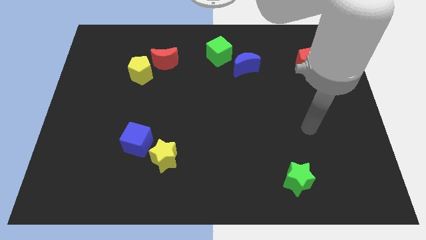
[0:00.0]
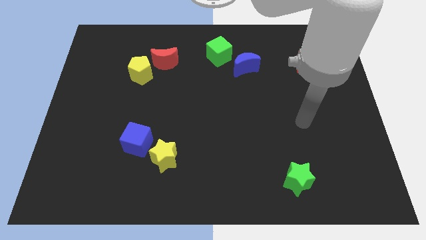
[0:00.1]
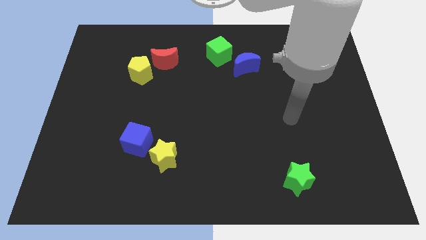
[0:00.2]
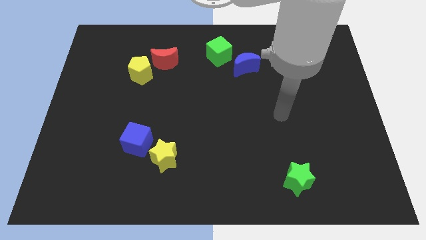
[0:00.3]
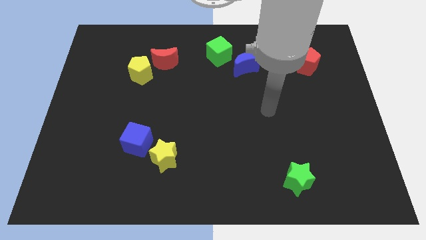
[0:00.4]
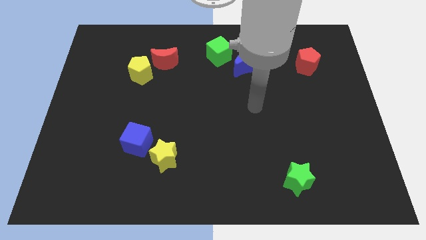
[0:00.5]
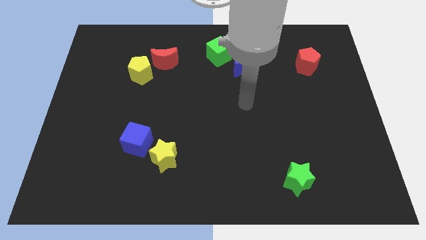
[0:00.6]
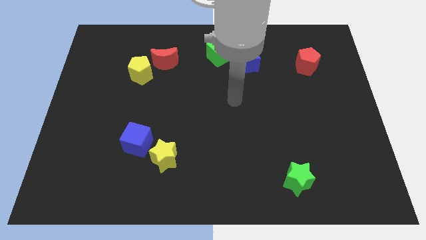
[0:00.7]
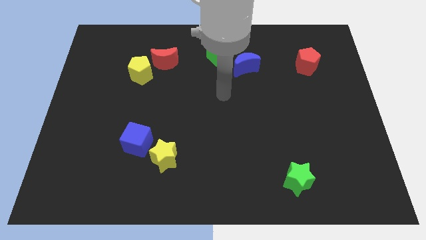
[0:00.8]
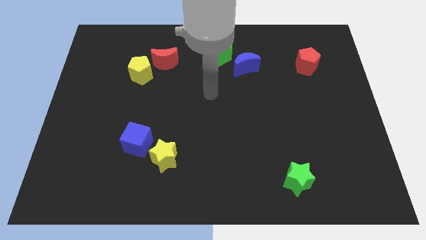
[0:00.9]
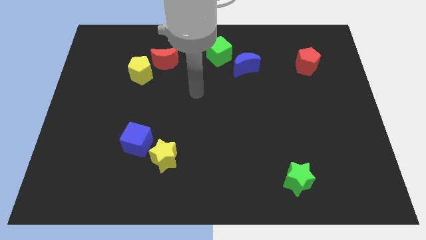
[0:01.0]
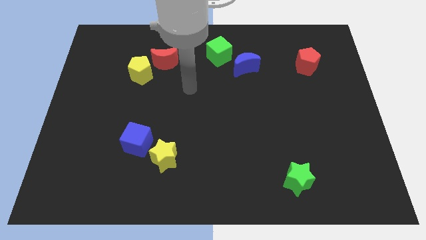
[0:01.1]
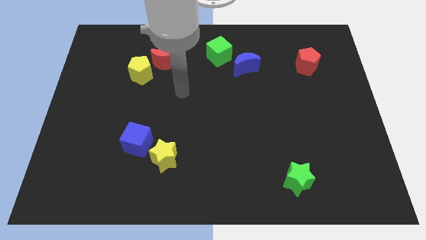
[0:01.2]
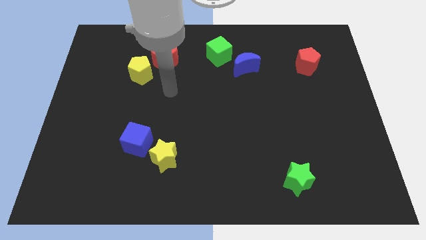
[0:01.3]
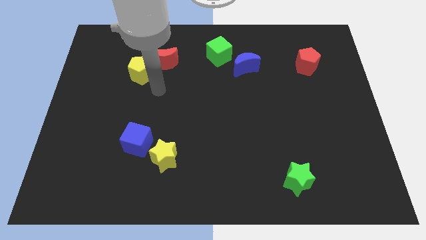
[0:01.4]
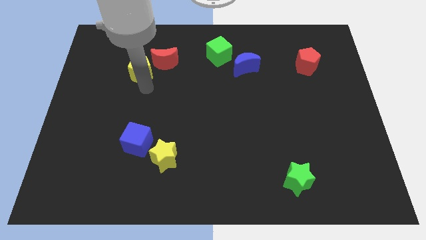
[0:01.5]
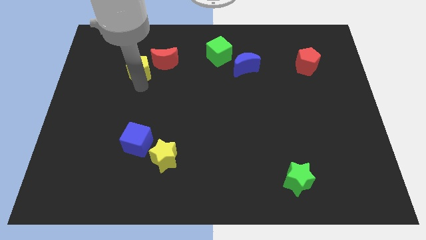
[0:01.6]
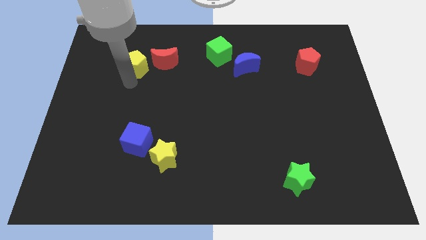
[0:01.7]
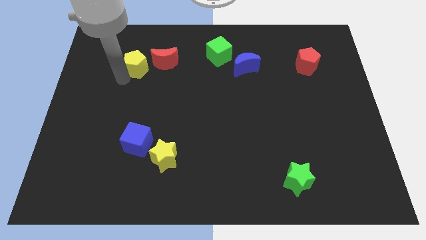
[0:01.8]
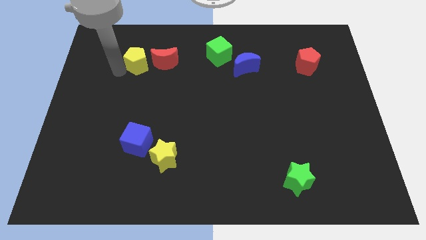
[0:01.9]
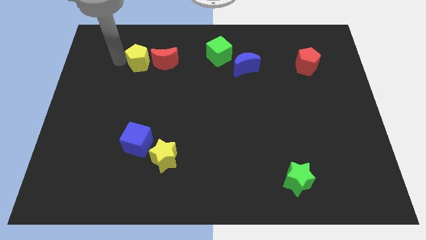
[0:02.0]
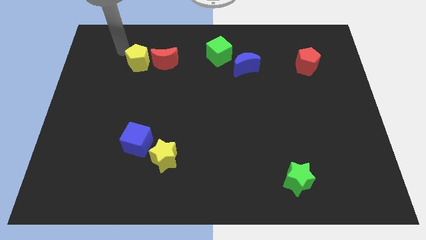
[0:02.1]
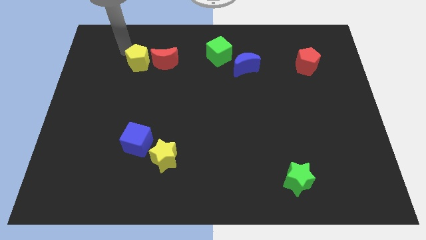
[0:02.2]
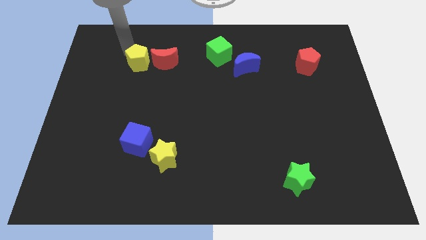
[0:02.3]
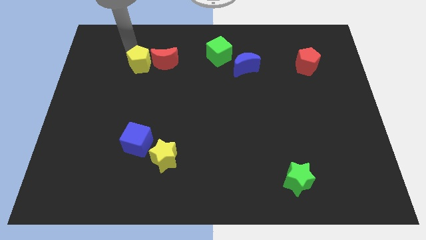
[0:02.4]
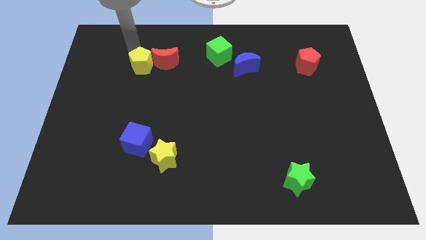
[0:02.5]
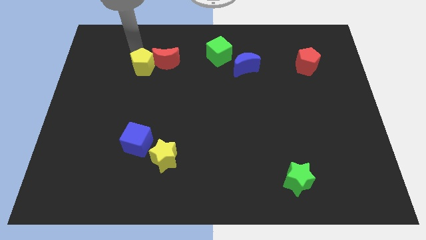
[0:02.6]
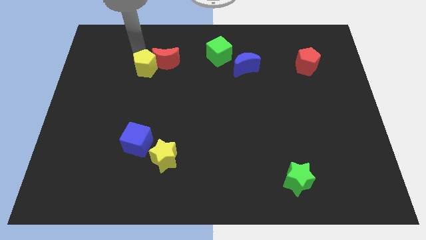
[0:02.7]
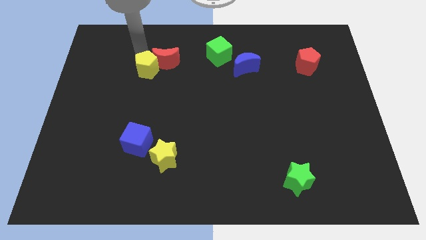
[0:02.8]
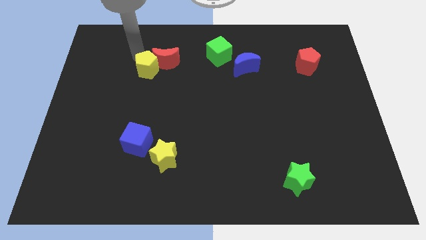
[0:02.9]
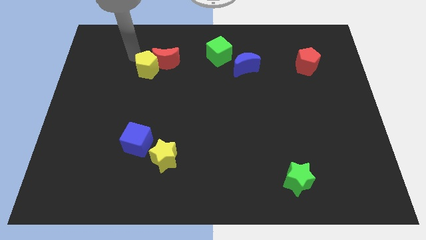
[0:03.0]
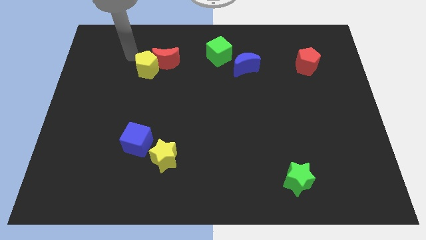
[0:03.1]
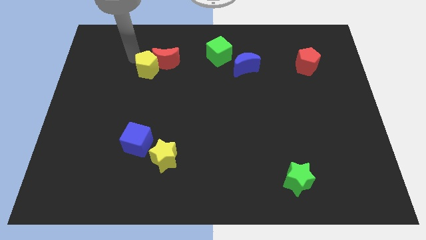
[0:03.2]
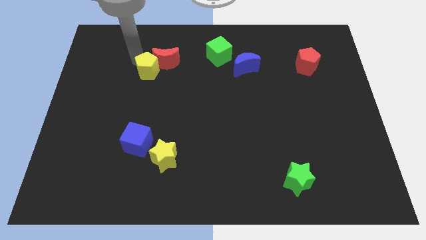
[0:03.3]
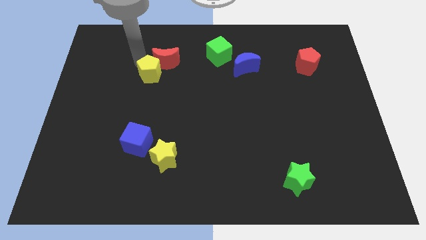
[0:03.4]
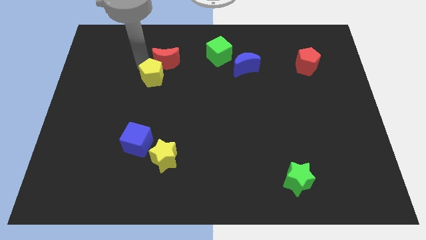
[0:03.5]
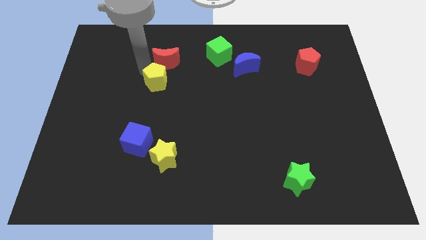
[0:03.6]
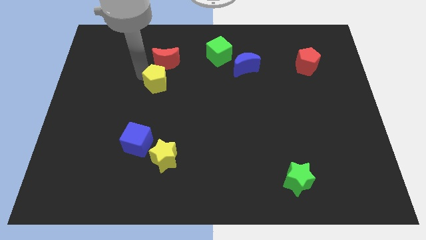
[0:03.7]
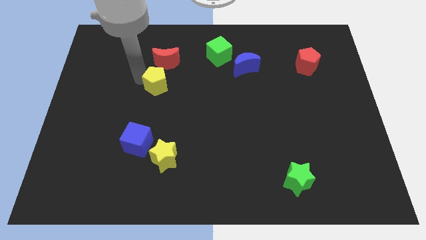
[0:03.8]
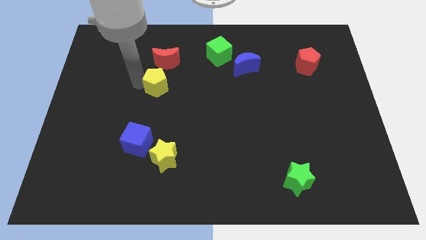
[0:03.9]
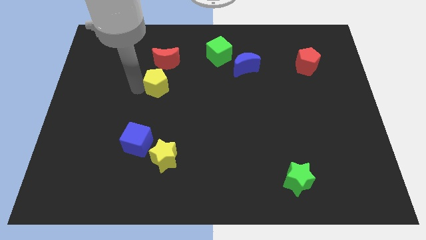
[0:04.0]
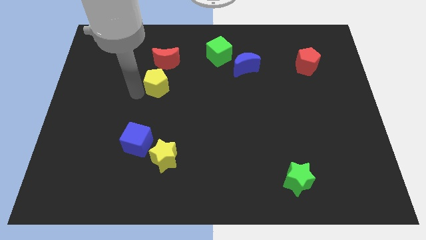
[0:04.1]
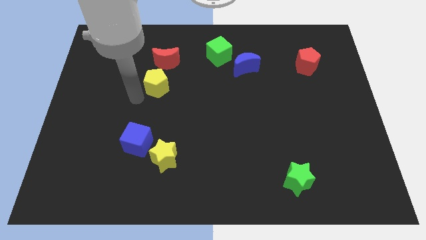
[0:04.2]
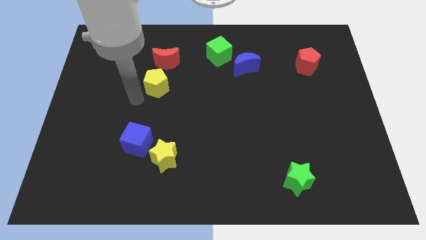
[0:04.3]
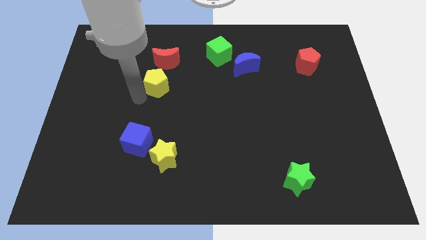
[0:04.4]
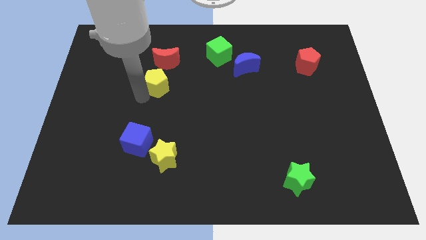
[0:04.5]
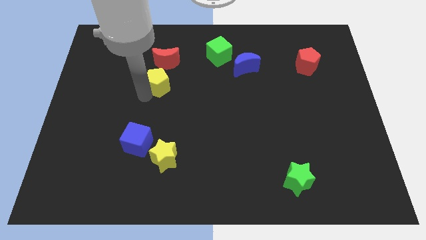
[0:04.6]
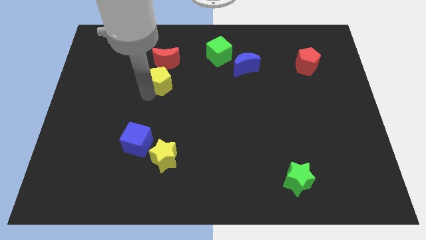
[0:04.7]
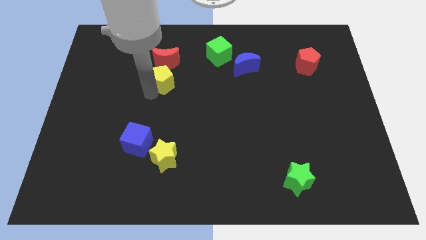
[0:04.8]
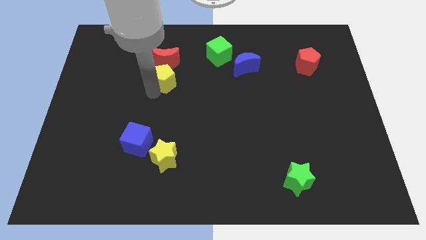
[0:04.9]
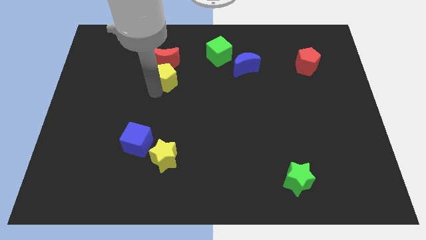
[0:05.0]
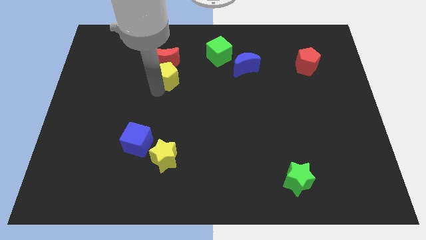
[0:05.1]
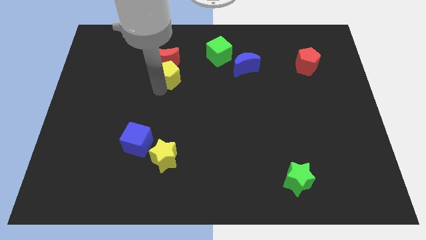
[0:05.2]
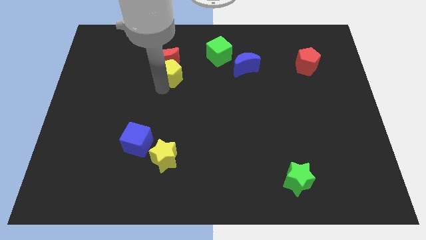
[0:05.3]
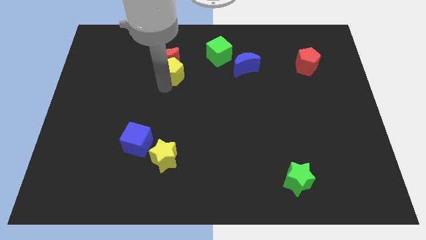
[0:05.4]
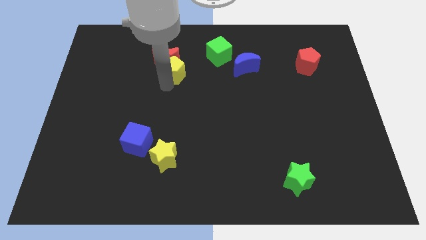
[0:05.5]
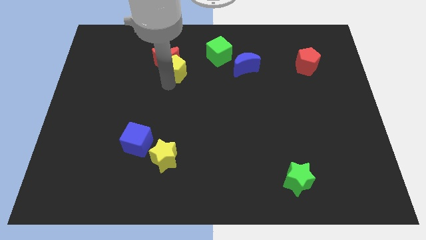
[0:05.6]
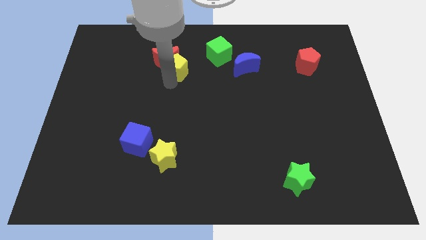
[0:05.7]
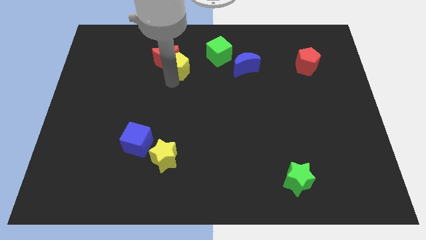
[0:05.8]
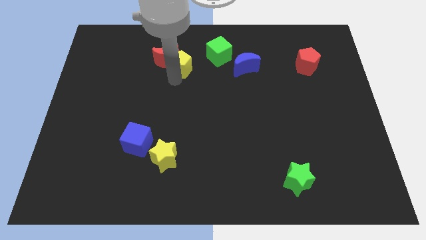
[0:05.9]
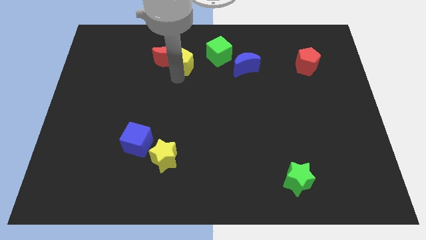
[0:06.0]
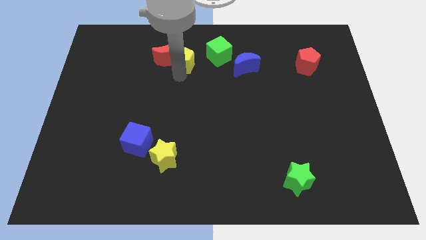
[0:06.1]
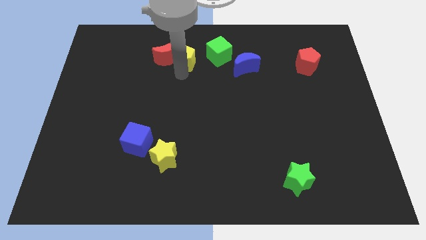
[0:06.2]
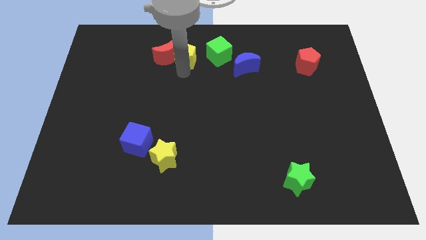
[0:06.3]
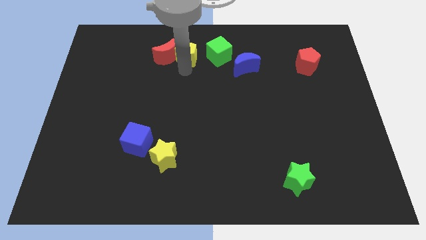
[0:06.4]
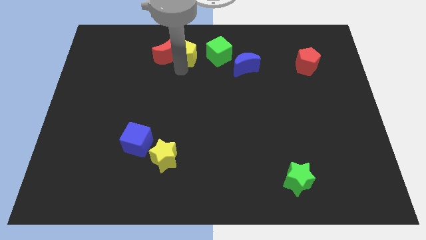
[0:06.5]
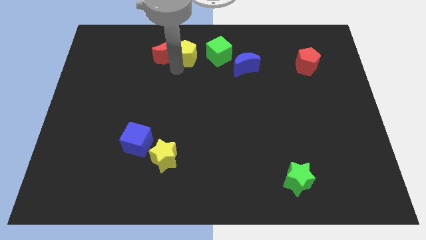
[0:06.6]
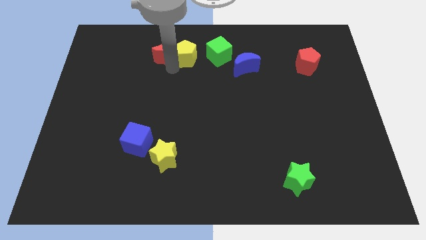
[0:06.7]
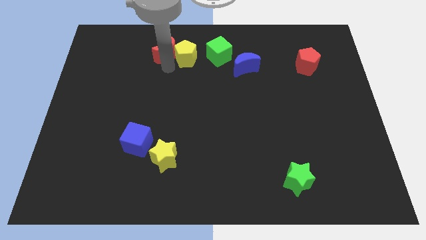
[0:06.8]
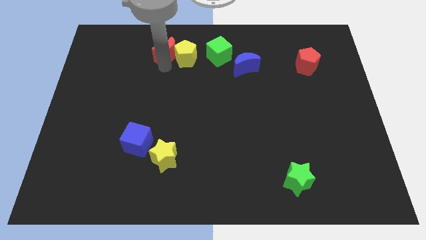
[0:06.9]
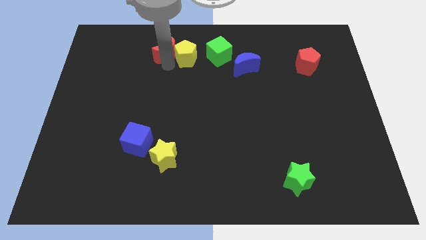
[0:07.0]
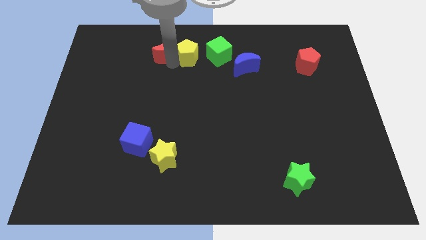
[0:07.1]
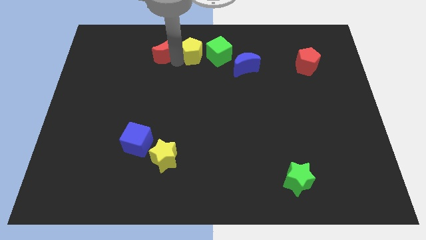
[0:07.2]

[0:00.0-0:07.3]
push the yellow pentagon to the top side
